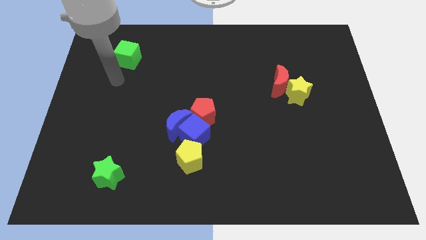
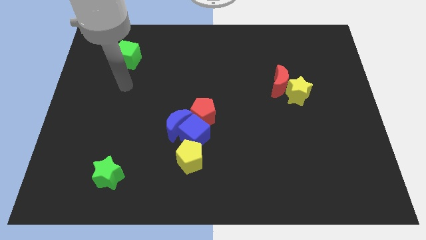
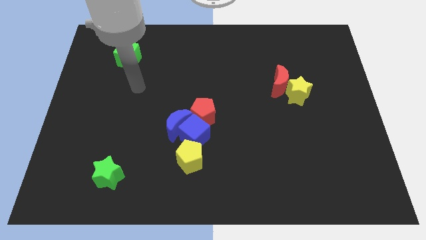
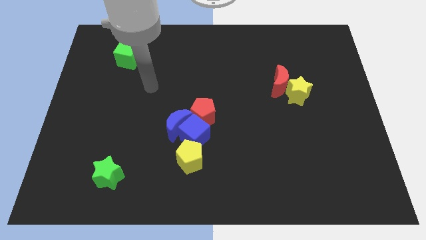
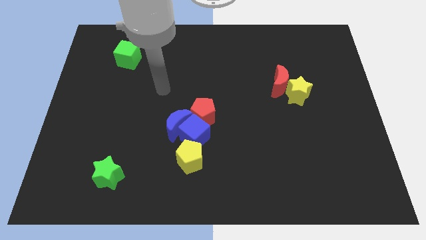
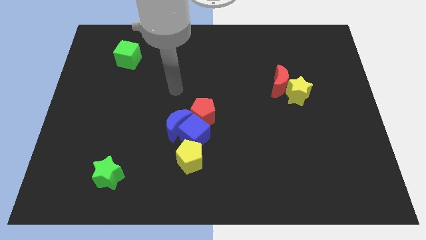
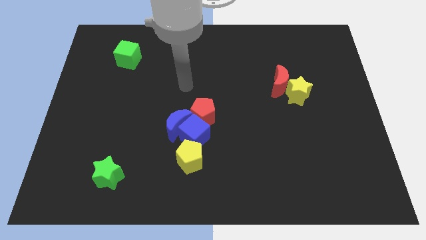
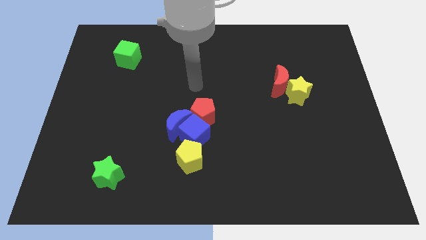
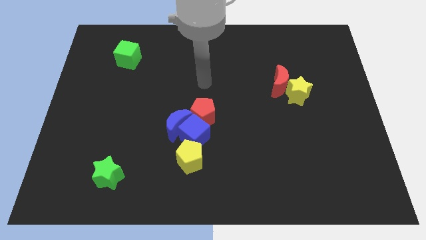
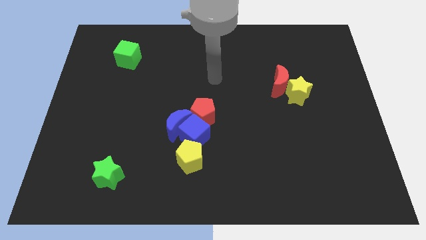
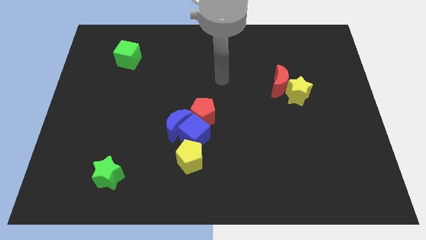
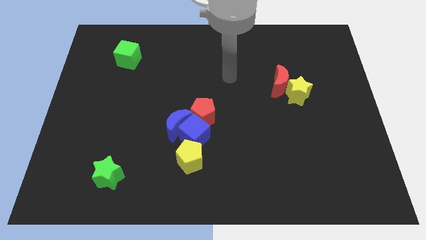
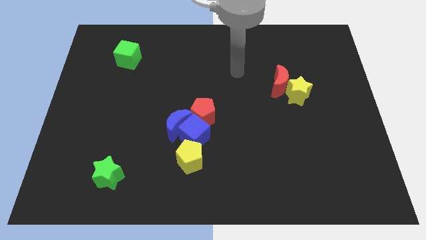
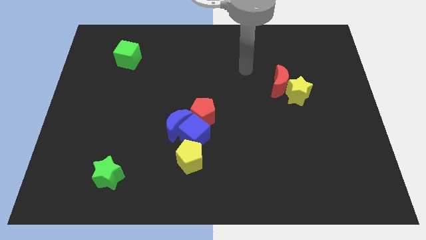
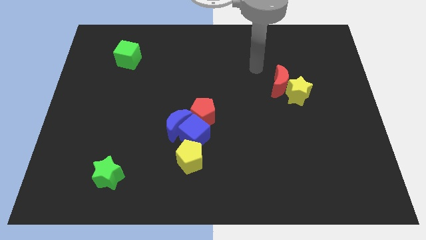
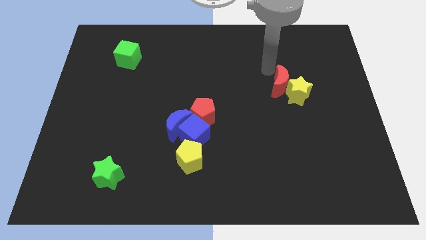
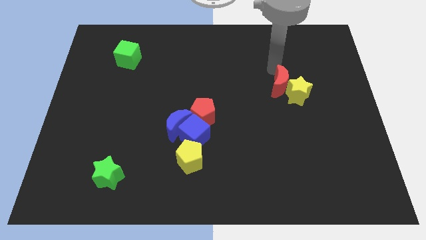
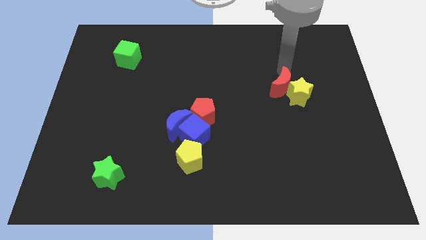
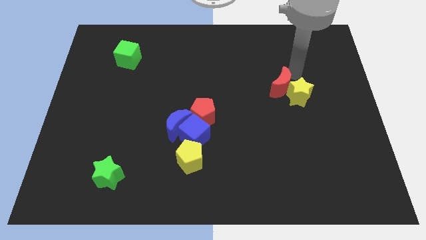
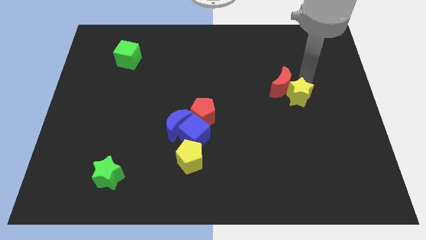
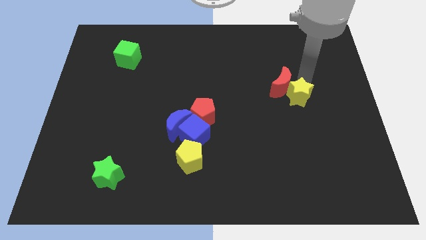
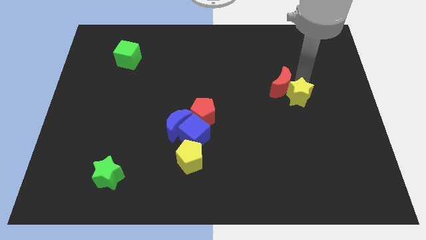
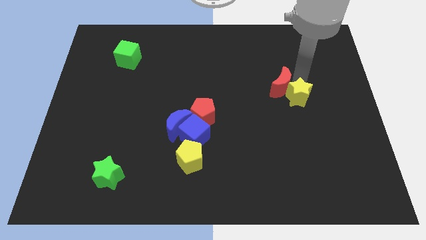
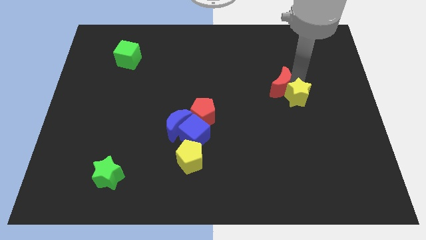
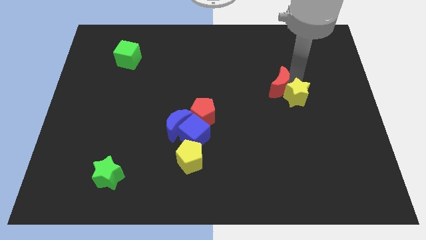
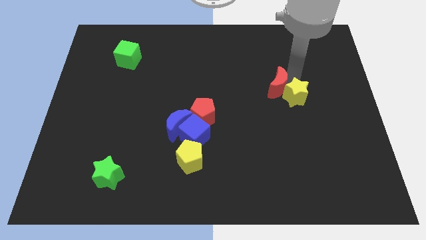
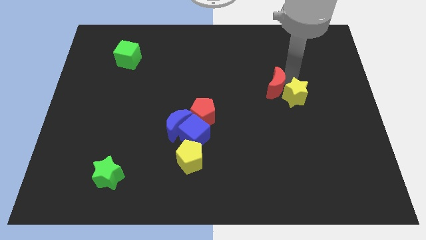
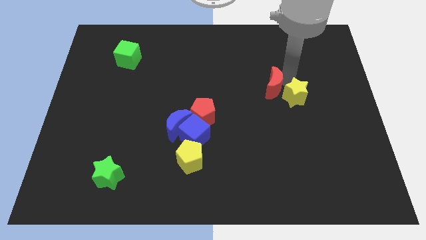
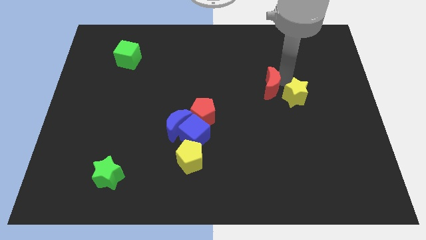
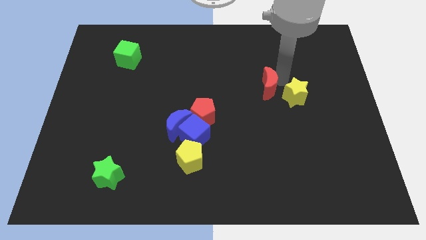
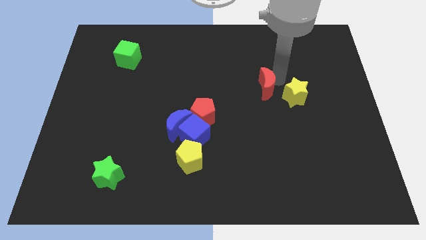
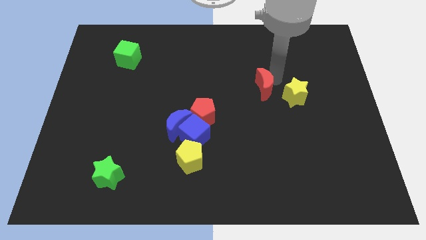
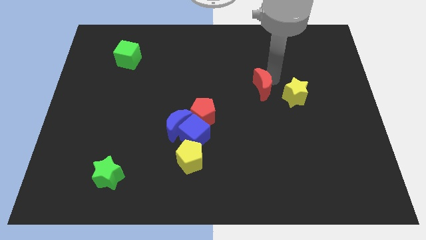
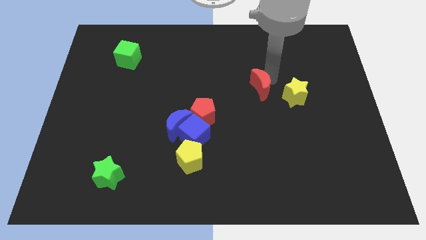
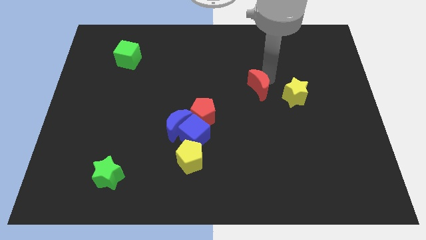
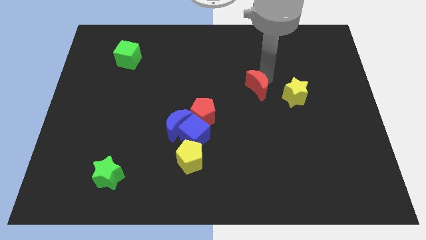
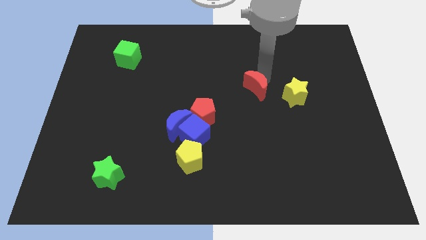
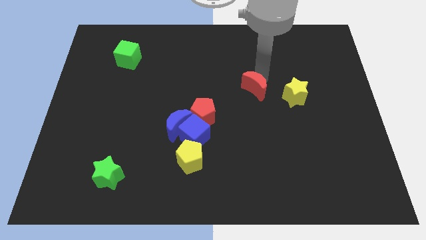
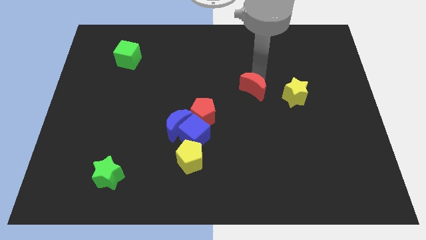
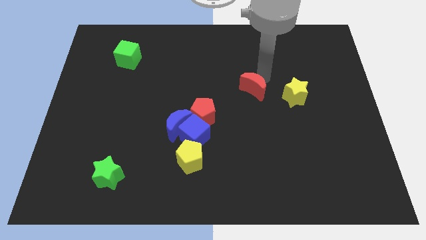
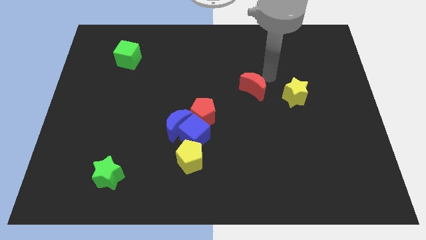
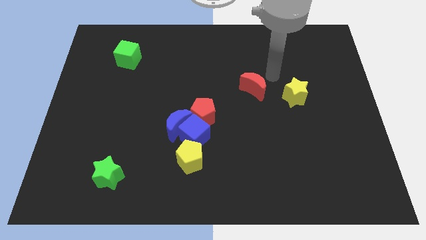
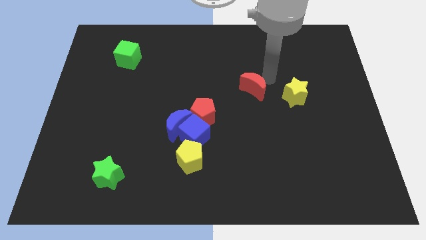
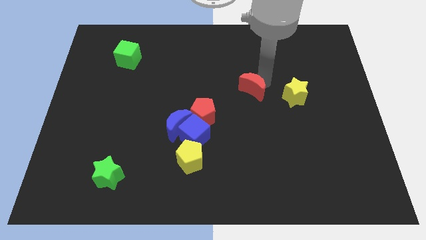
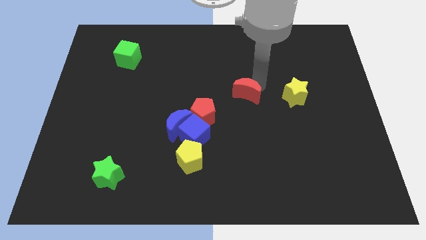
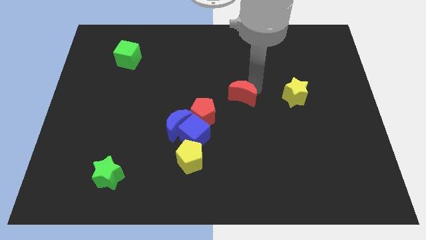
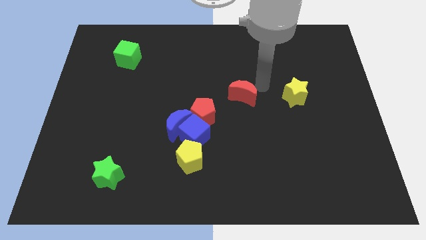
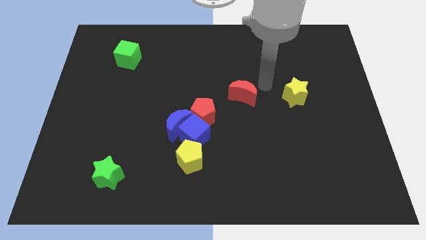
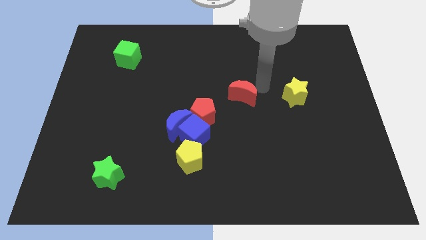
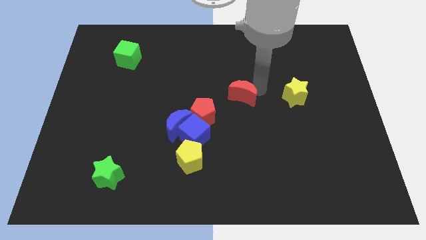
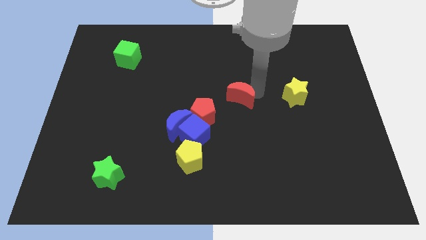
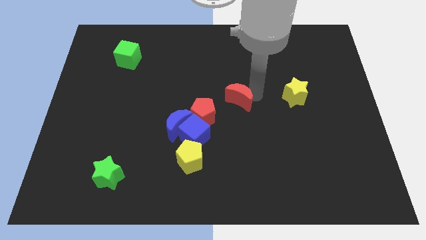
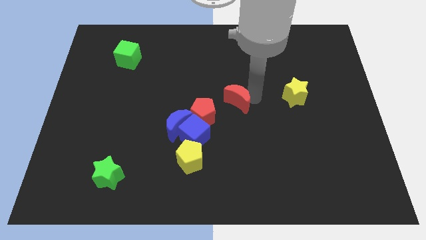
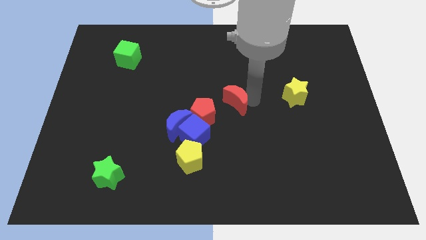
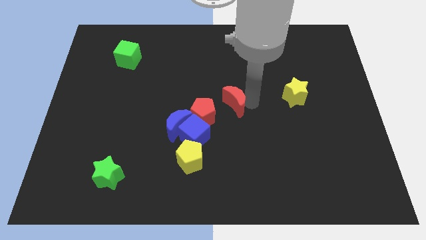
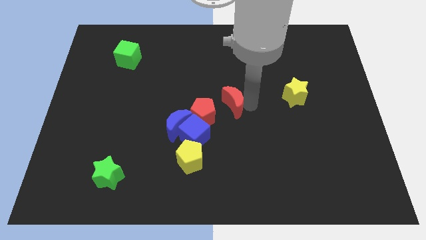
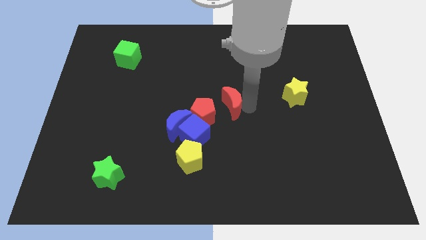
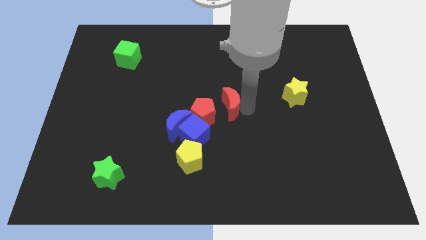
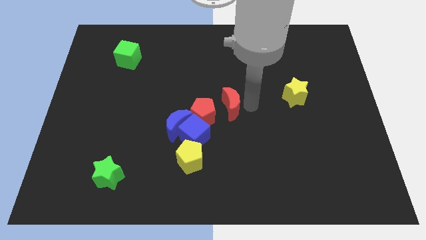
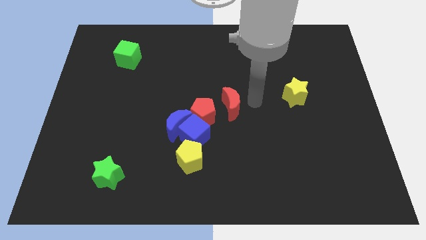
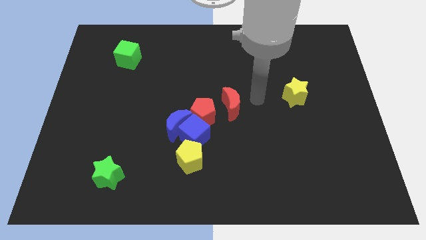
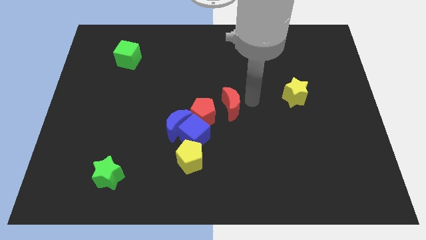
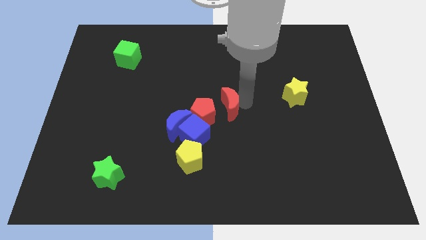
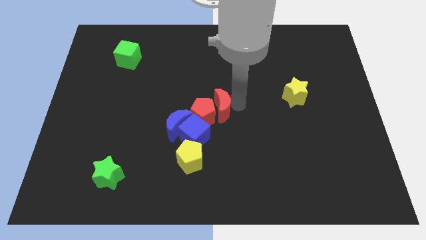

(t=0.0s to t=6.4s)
move the red moon to the red pentagon

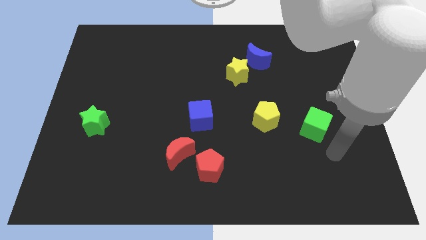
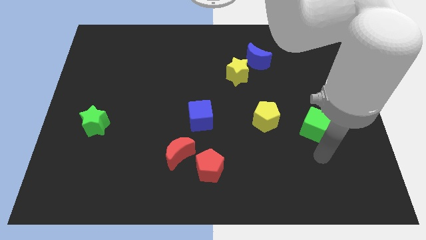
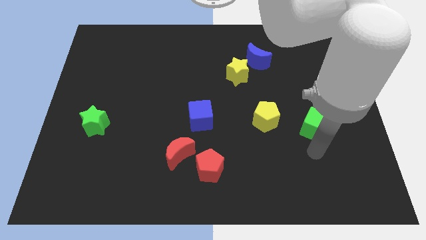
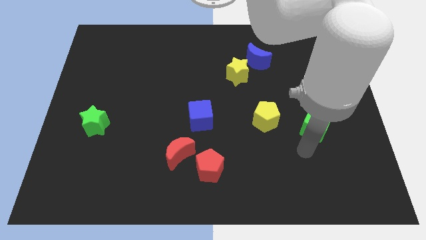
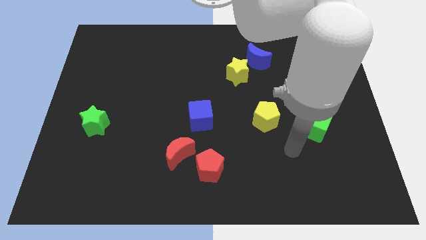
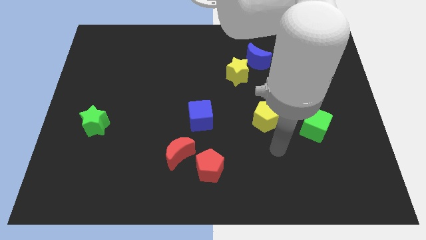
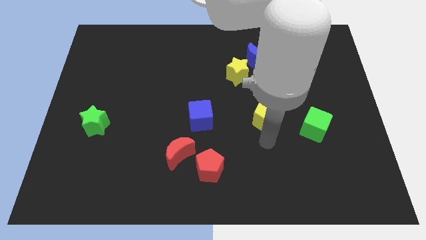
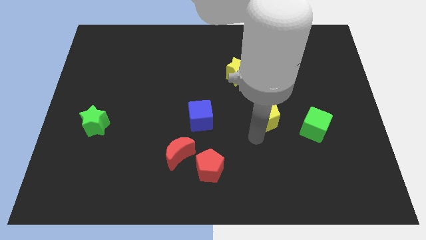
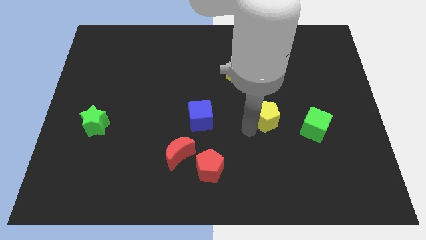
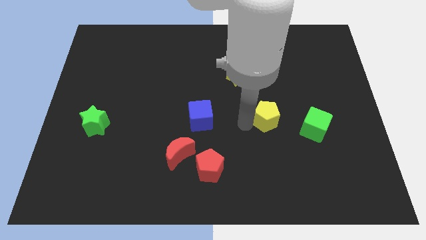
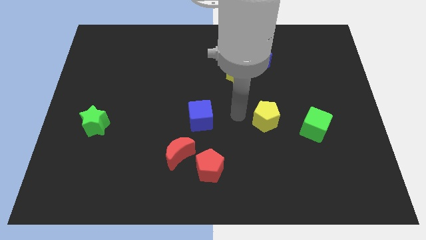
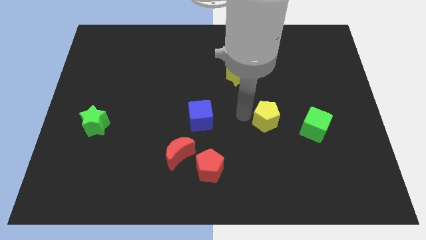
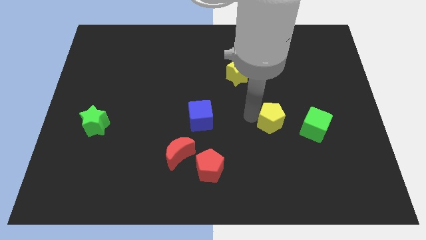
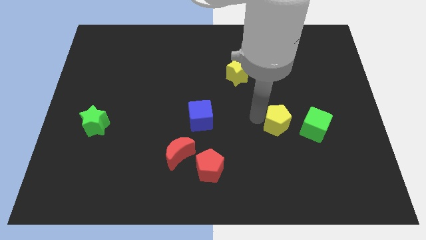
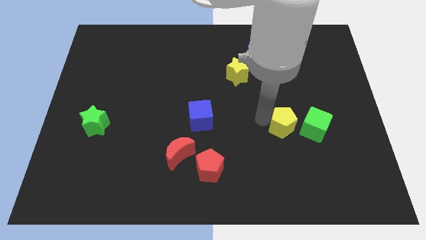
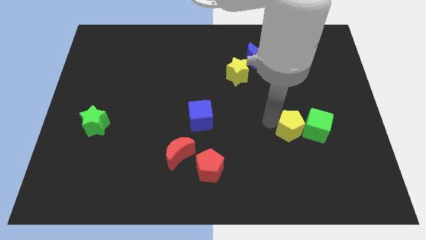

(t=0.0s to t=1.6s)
slide the yellow pentagon towards the green cube
